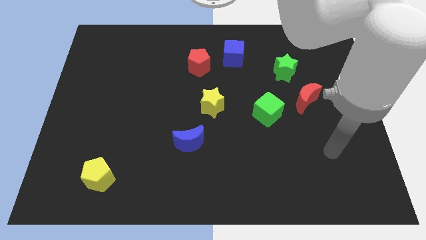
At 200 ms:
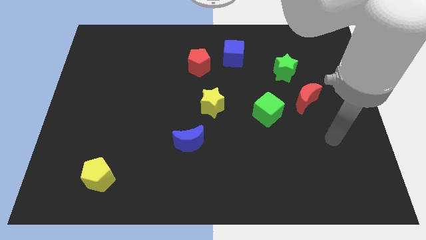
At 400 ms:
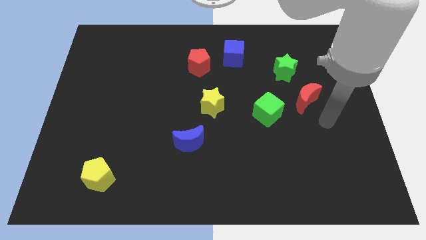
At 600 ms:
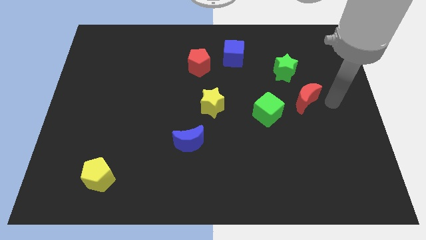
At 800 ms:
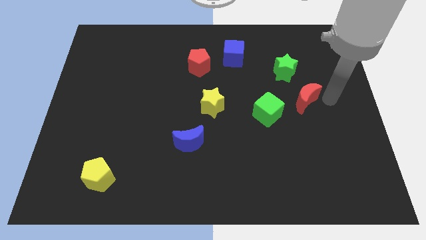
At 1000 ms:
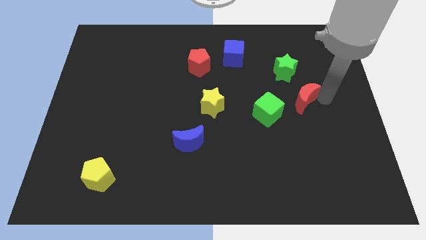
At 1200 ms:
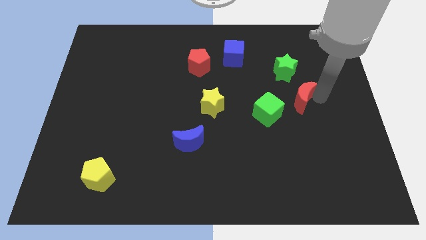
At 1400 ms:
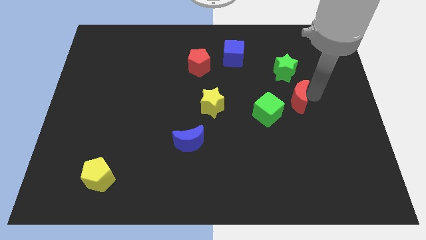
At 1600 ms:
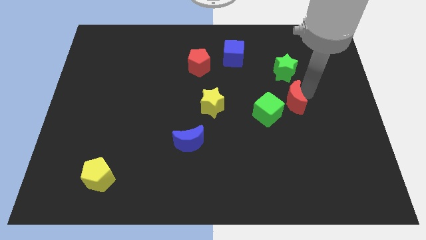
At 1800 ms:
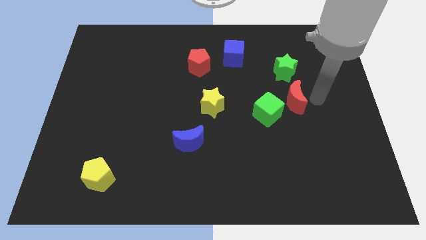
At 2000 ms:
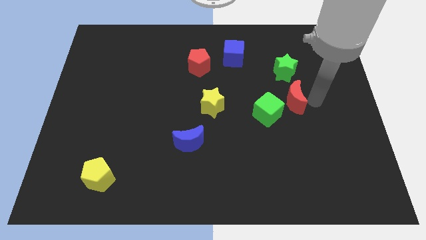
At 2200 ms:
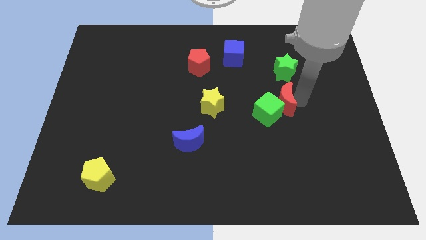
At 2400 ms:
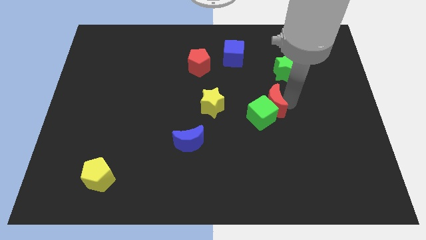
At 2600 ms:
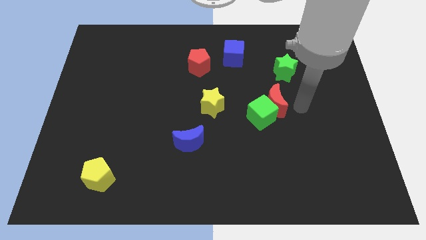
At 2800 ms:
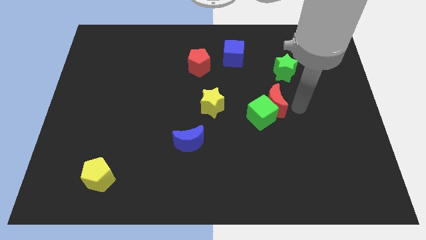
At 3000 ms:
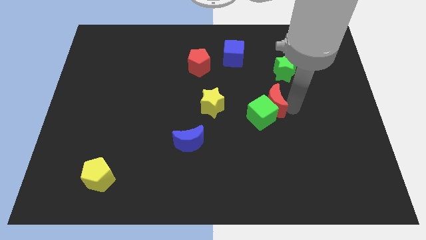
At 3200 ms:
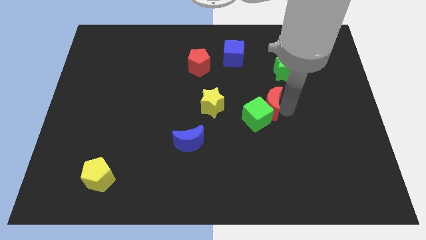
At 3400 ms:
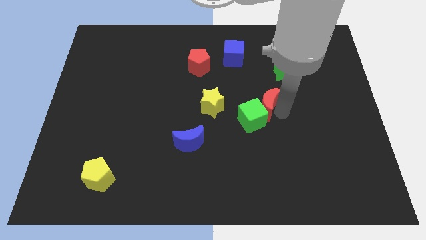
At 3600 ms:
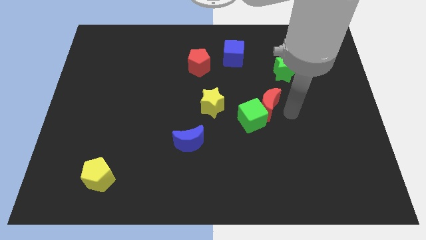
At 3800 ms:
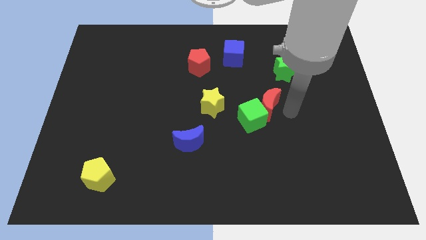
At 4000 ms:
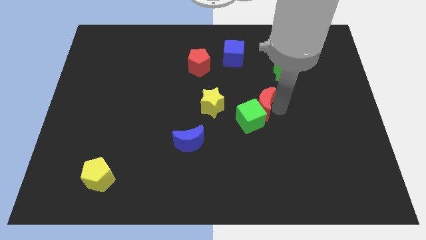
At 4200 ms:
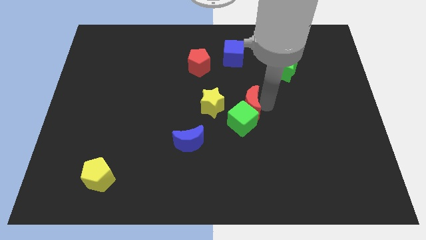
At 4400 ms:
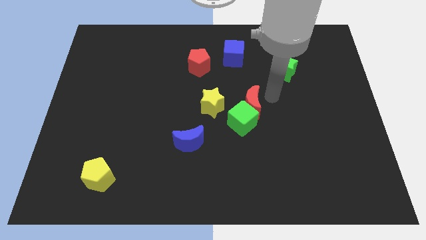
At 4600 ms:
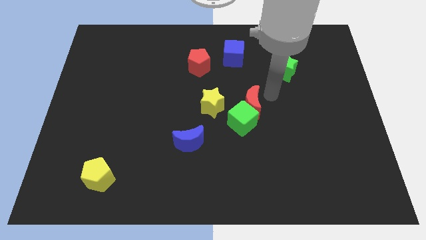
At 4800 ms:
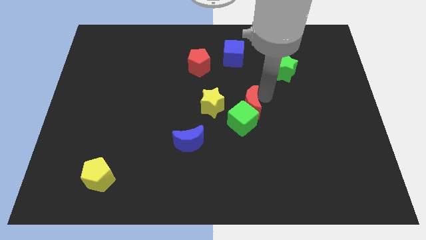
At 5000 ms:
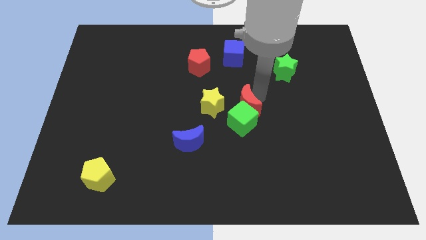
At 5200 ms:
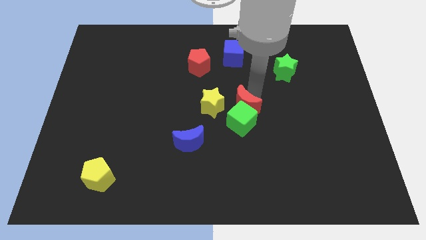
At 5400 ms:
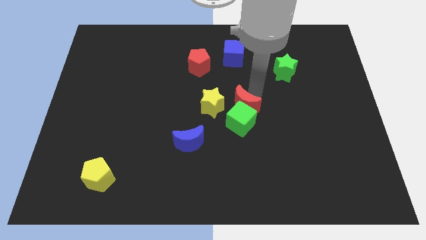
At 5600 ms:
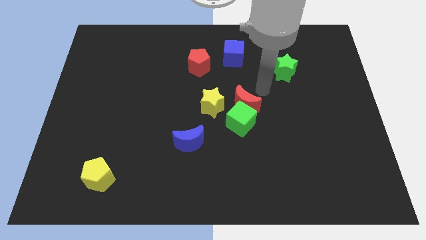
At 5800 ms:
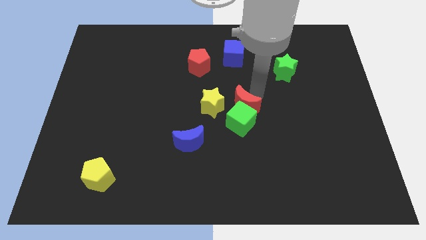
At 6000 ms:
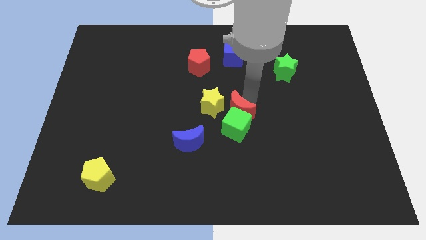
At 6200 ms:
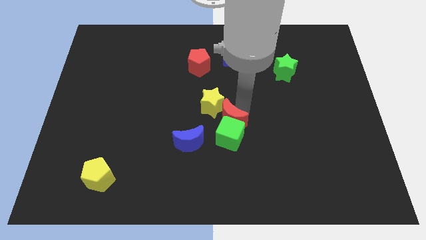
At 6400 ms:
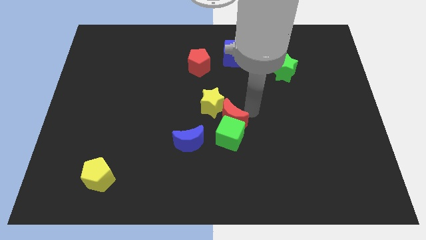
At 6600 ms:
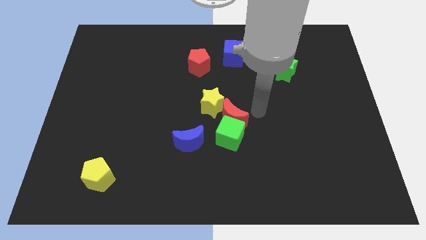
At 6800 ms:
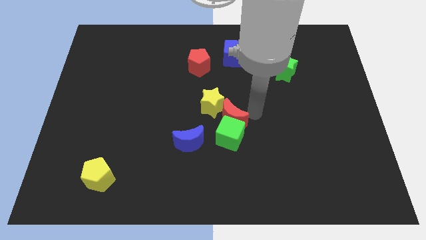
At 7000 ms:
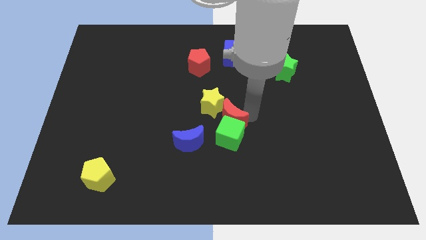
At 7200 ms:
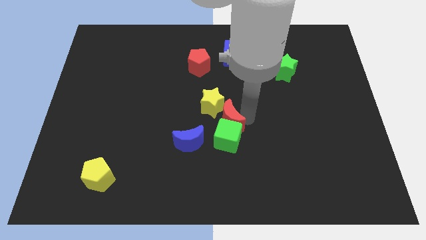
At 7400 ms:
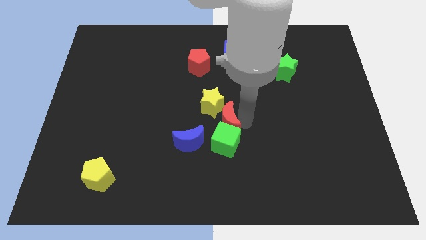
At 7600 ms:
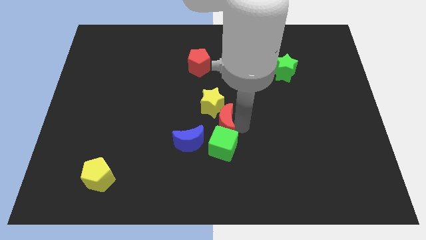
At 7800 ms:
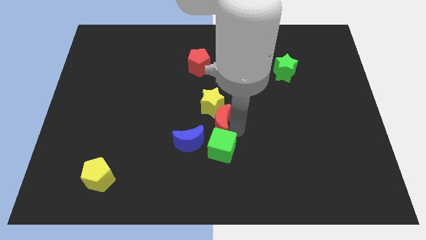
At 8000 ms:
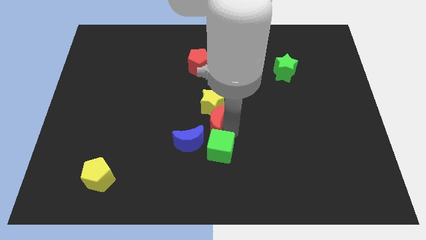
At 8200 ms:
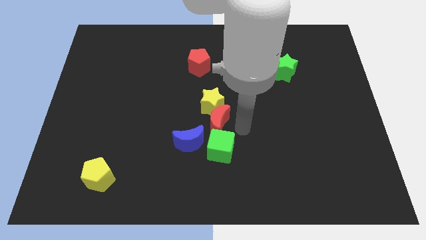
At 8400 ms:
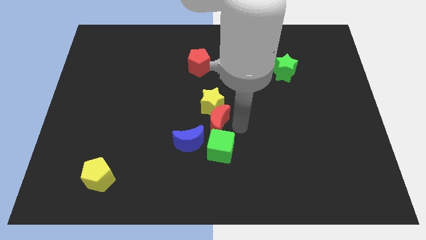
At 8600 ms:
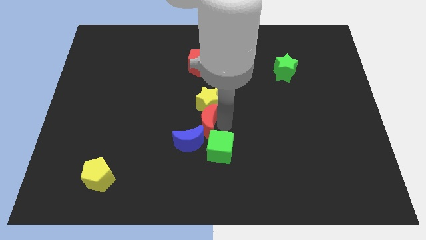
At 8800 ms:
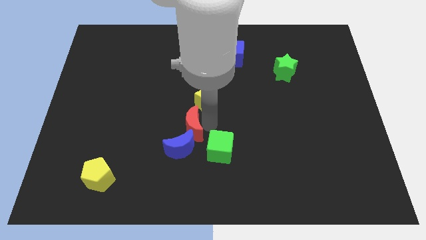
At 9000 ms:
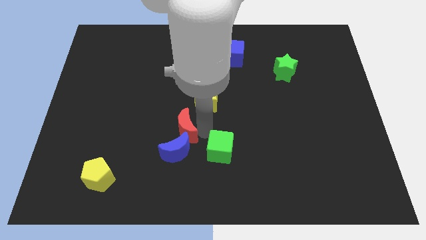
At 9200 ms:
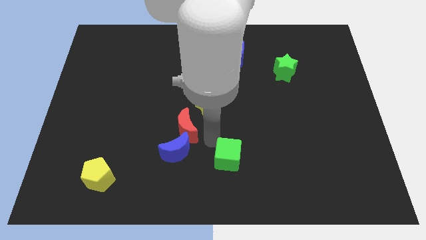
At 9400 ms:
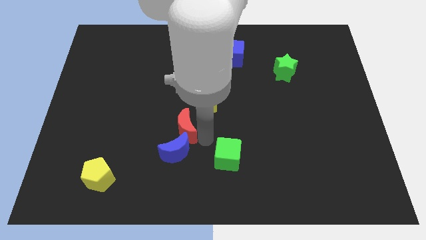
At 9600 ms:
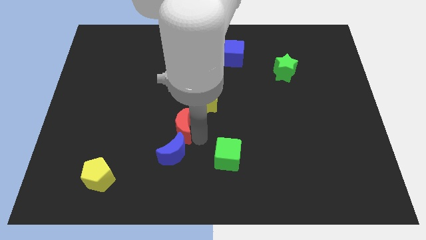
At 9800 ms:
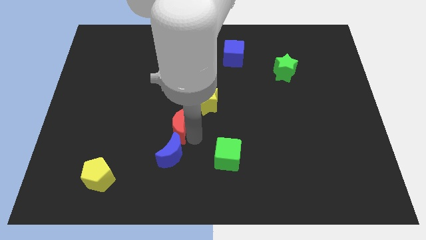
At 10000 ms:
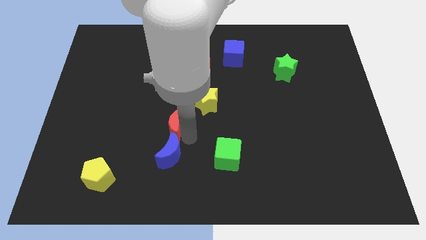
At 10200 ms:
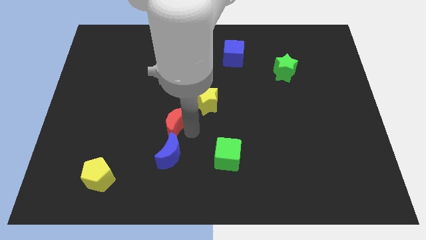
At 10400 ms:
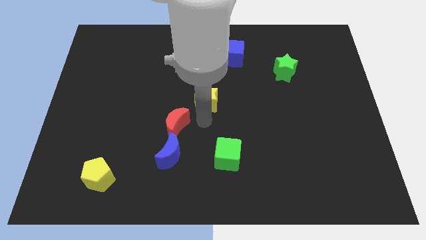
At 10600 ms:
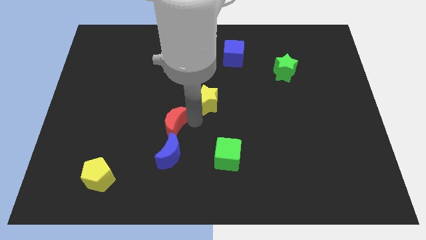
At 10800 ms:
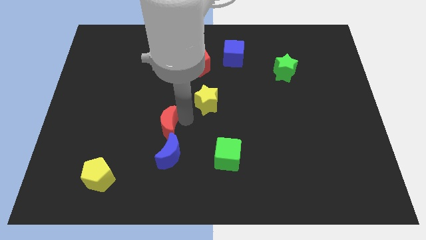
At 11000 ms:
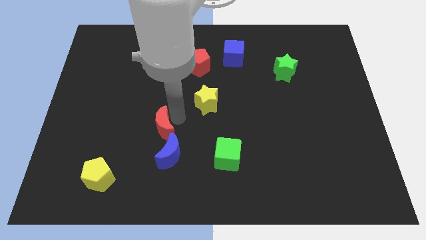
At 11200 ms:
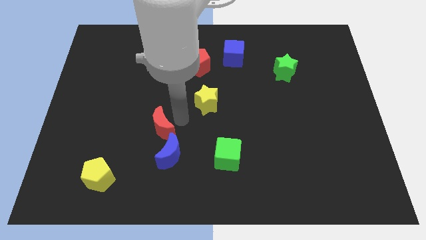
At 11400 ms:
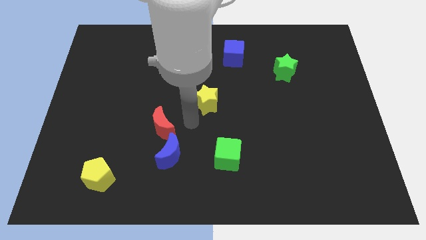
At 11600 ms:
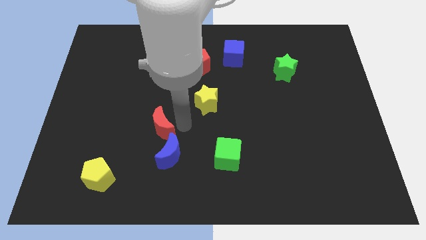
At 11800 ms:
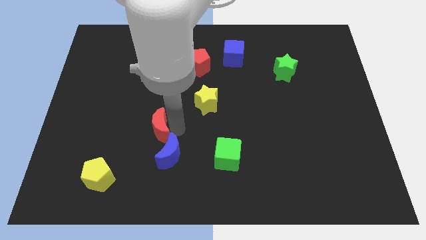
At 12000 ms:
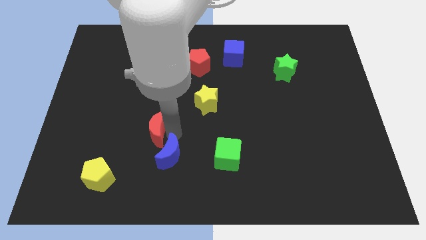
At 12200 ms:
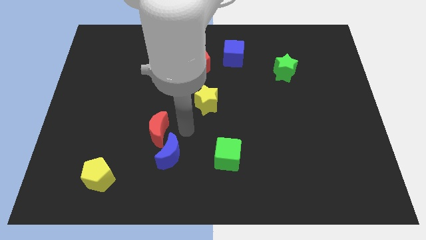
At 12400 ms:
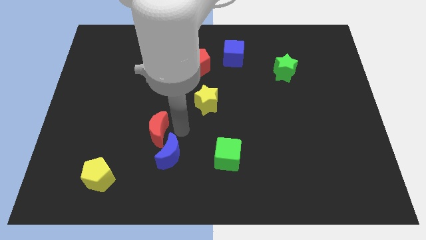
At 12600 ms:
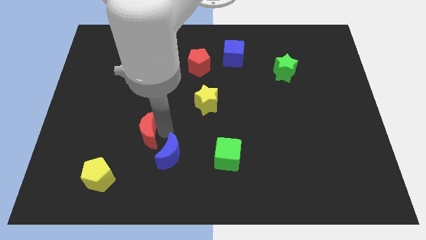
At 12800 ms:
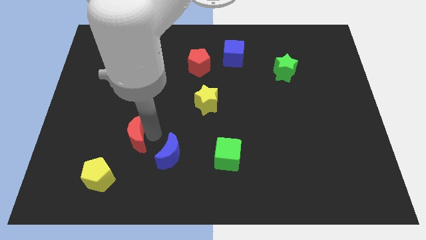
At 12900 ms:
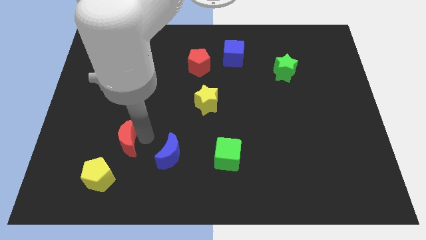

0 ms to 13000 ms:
put the red moon above the yellow pentagon
